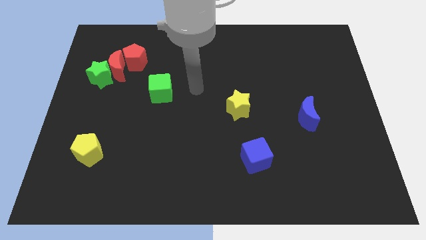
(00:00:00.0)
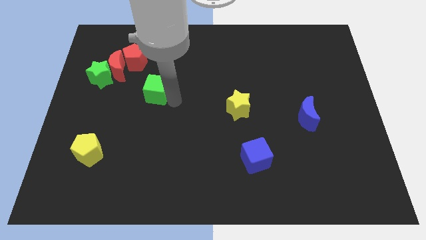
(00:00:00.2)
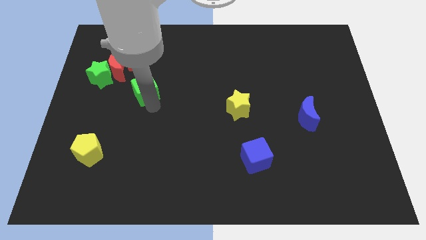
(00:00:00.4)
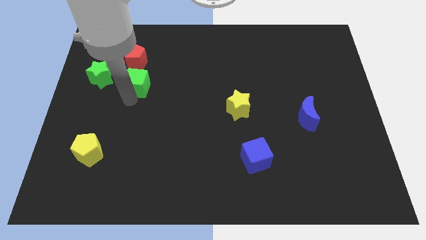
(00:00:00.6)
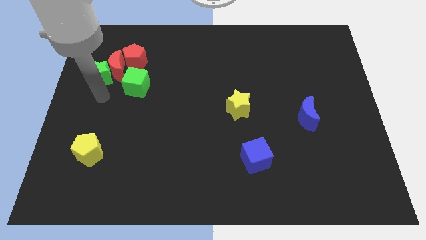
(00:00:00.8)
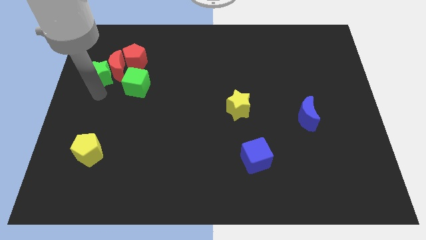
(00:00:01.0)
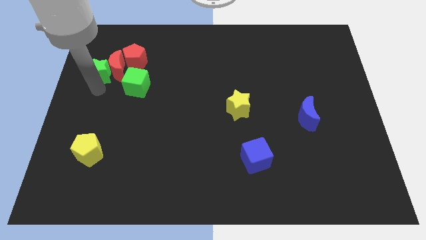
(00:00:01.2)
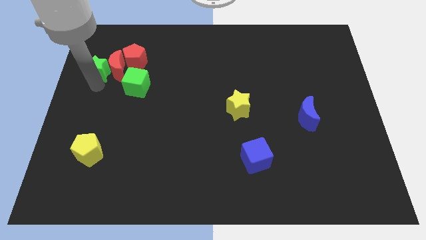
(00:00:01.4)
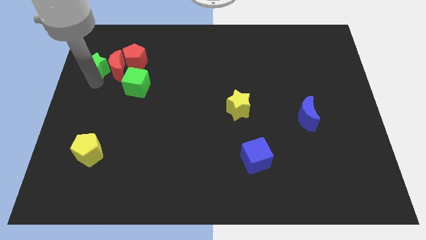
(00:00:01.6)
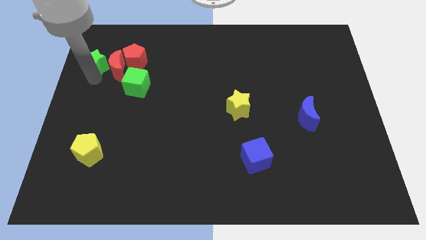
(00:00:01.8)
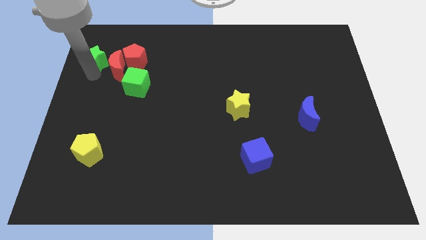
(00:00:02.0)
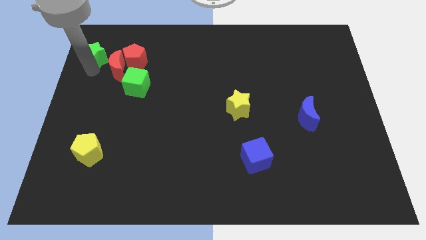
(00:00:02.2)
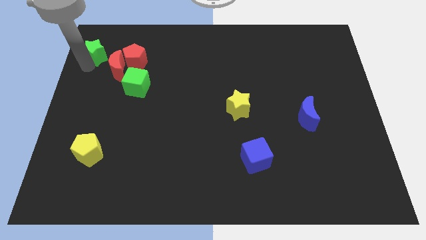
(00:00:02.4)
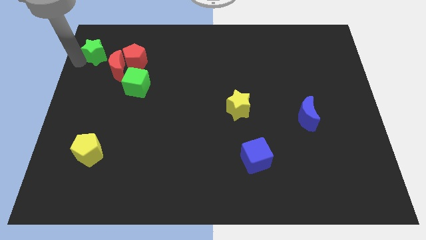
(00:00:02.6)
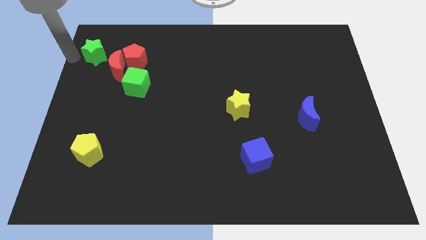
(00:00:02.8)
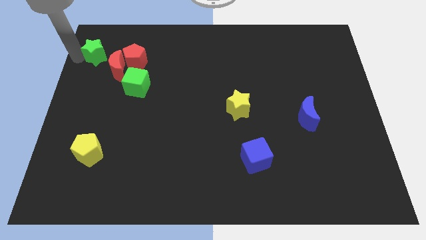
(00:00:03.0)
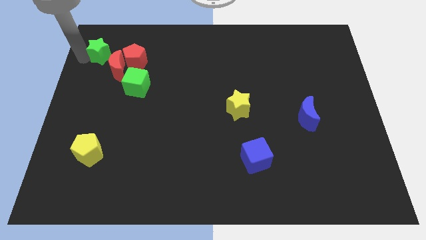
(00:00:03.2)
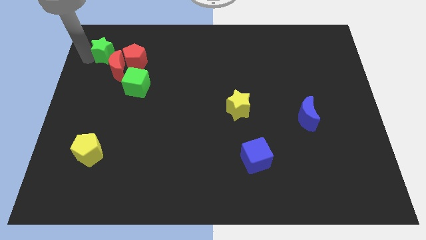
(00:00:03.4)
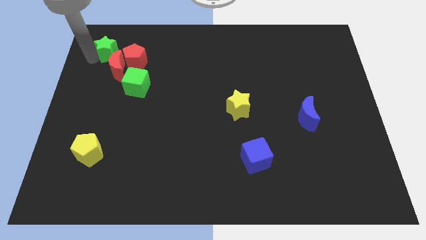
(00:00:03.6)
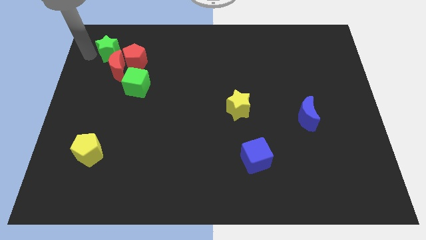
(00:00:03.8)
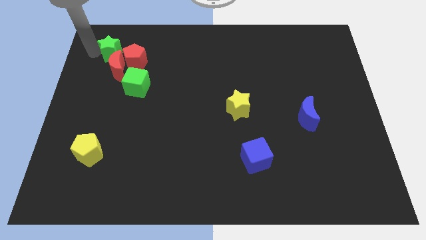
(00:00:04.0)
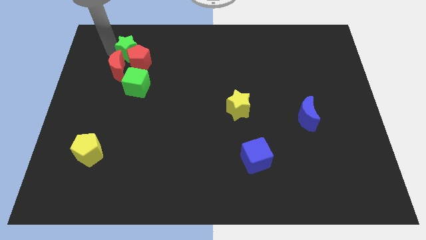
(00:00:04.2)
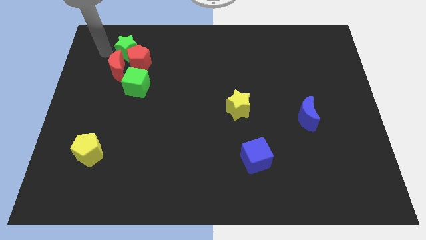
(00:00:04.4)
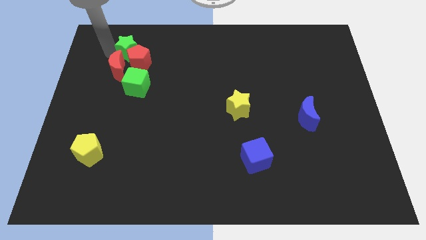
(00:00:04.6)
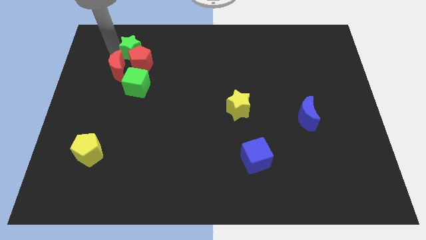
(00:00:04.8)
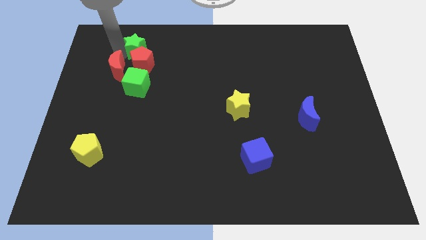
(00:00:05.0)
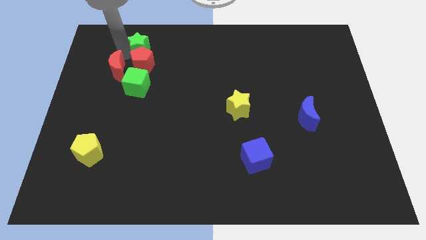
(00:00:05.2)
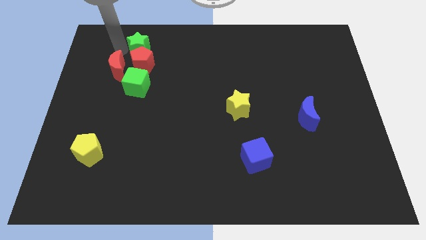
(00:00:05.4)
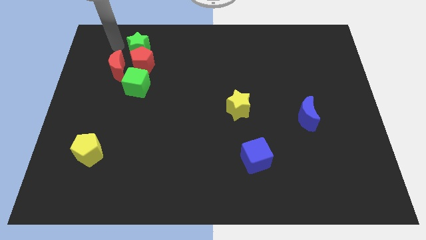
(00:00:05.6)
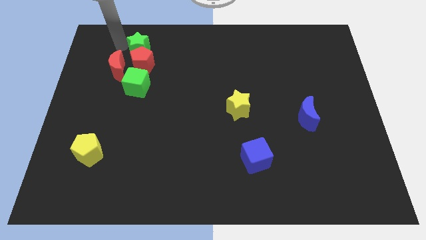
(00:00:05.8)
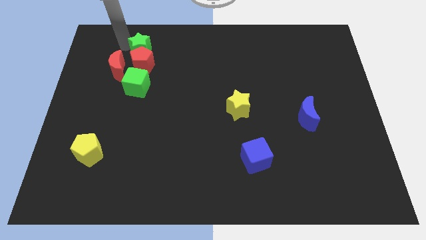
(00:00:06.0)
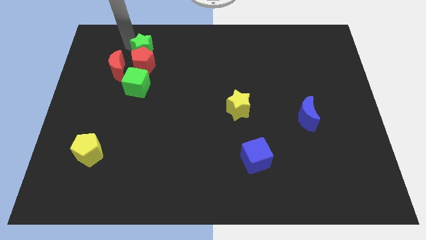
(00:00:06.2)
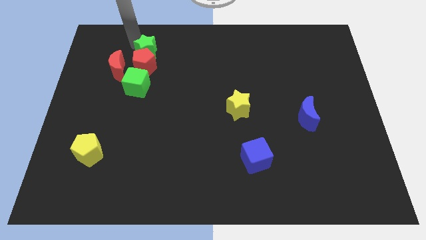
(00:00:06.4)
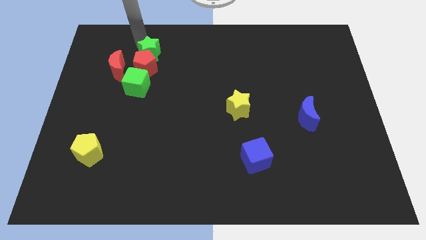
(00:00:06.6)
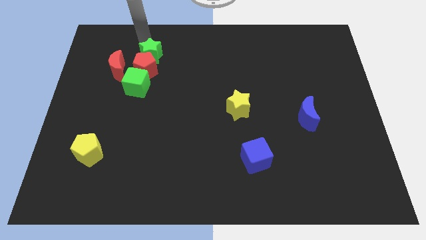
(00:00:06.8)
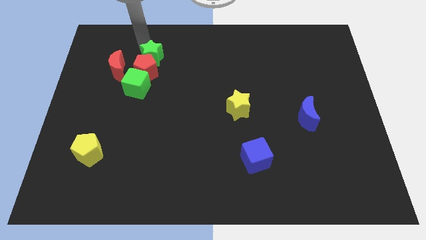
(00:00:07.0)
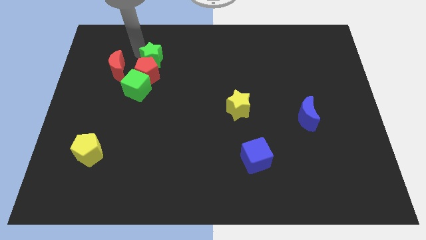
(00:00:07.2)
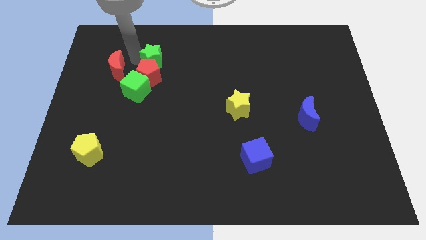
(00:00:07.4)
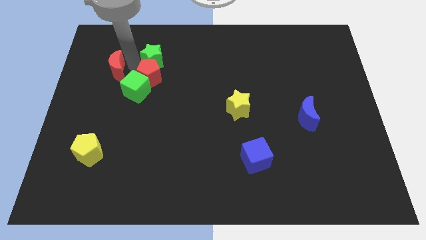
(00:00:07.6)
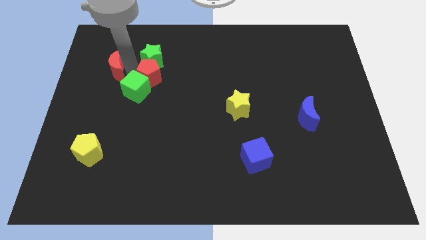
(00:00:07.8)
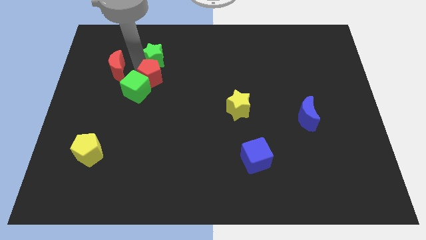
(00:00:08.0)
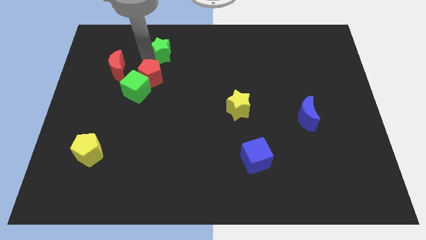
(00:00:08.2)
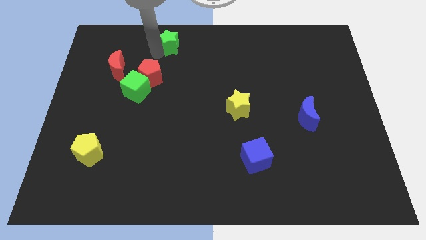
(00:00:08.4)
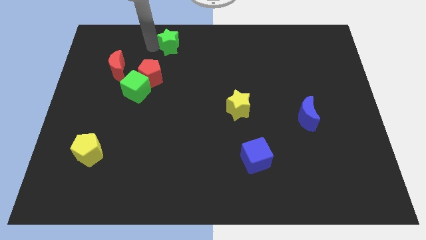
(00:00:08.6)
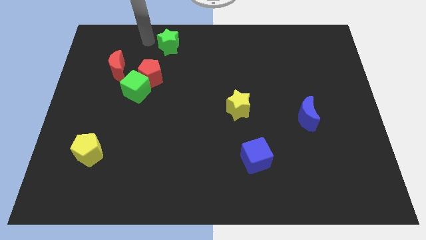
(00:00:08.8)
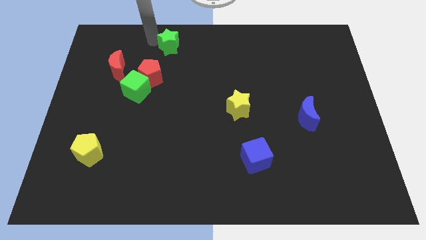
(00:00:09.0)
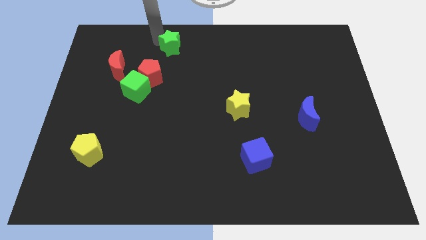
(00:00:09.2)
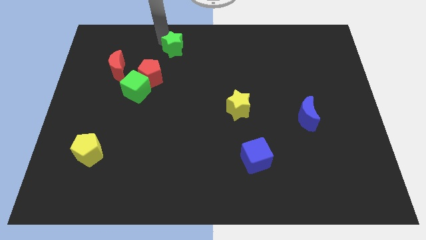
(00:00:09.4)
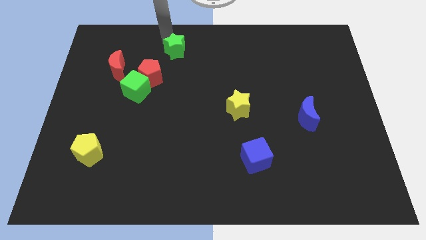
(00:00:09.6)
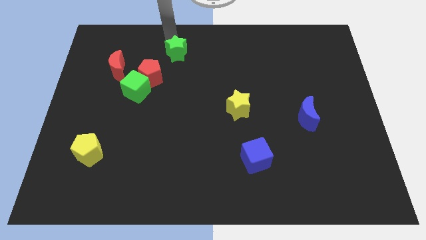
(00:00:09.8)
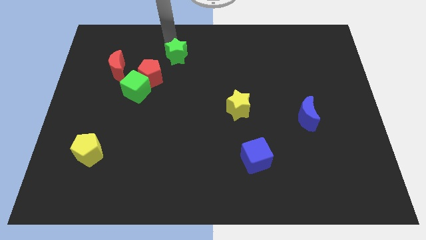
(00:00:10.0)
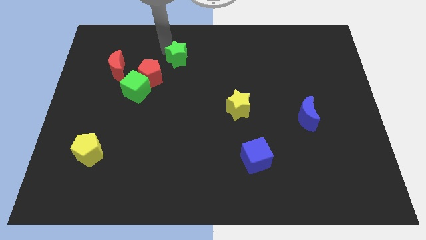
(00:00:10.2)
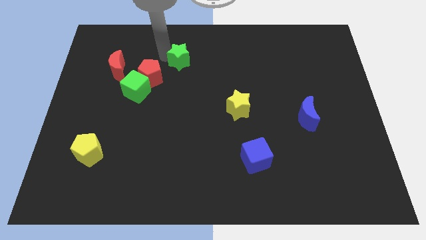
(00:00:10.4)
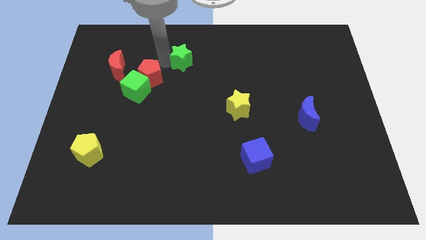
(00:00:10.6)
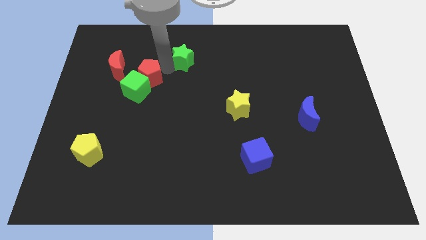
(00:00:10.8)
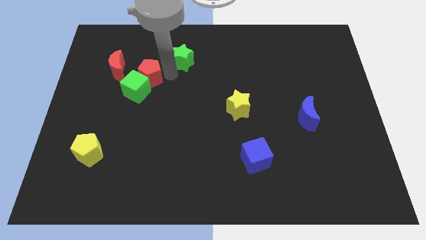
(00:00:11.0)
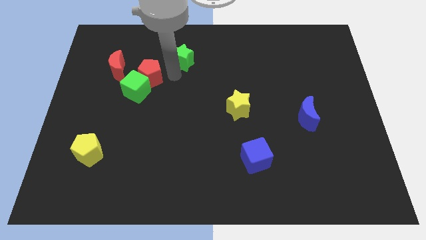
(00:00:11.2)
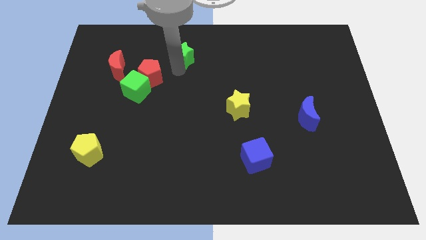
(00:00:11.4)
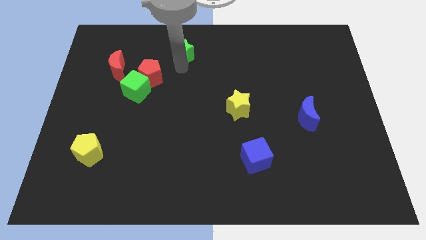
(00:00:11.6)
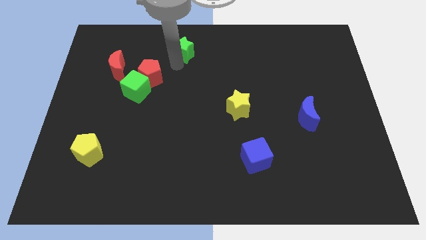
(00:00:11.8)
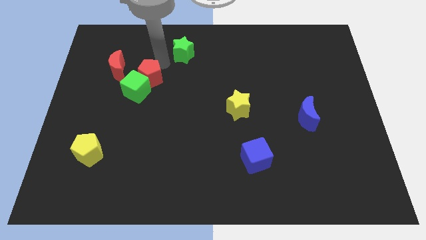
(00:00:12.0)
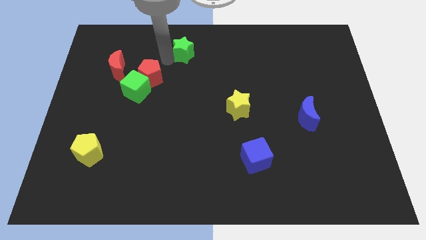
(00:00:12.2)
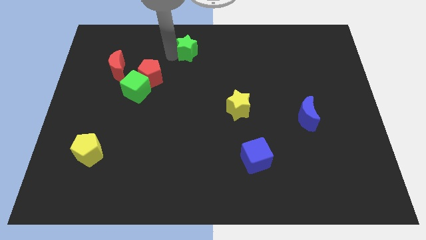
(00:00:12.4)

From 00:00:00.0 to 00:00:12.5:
push the green star to the towards your base

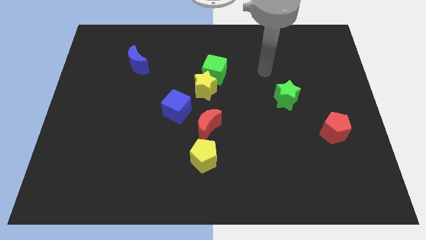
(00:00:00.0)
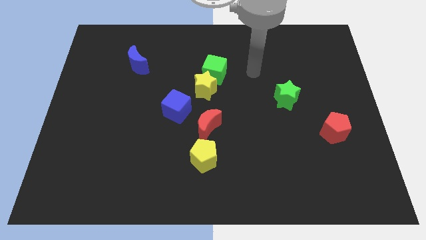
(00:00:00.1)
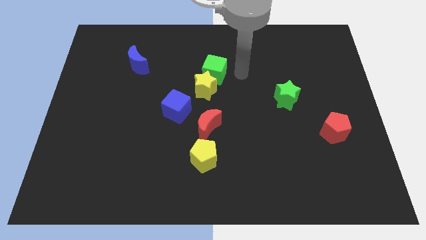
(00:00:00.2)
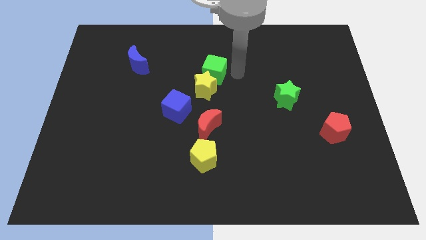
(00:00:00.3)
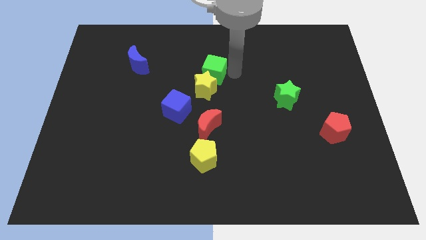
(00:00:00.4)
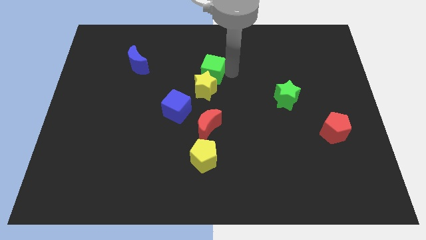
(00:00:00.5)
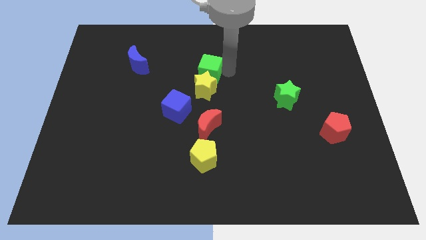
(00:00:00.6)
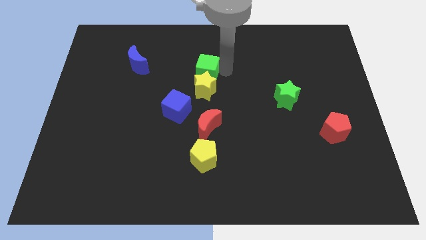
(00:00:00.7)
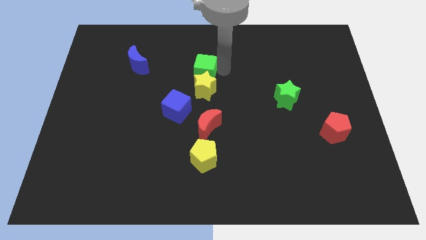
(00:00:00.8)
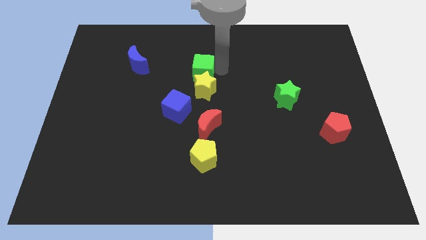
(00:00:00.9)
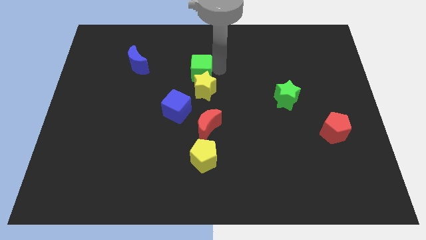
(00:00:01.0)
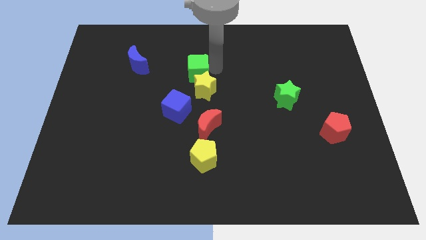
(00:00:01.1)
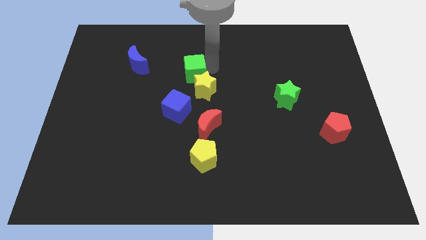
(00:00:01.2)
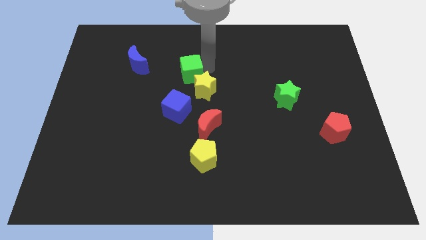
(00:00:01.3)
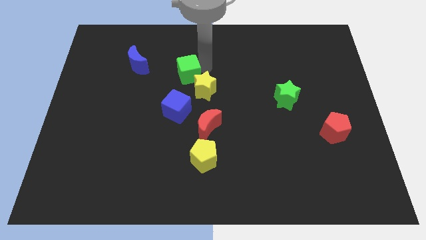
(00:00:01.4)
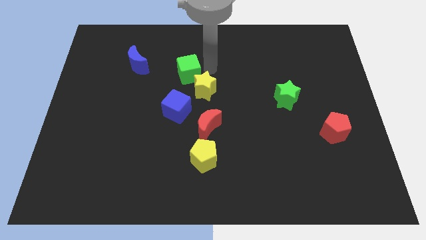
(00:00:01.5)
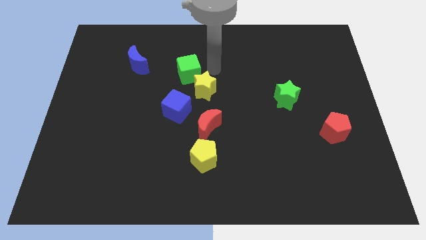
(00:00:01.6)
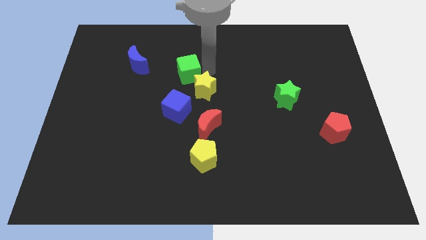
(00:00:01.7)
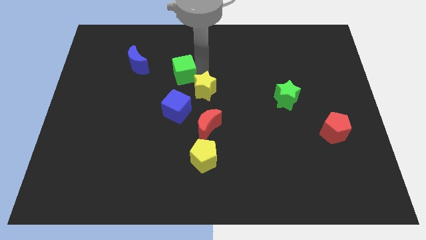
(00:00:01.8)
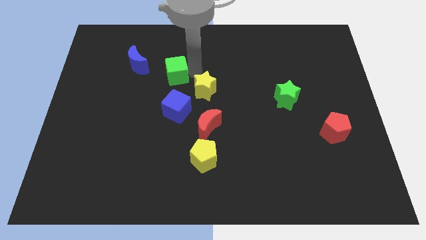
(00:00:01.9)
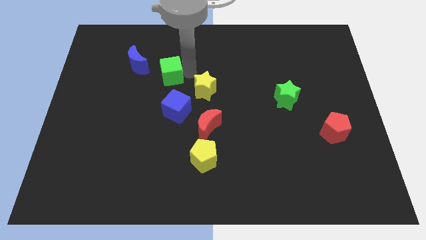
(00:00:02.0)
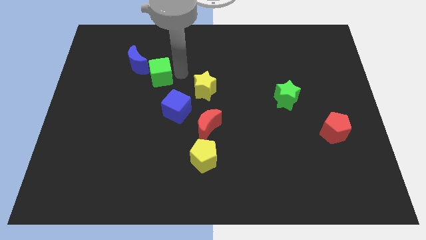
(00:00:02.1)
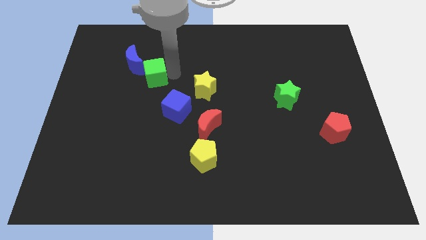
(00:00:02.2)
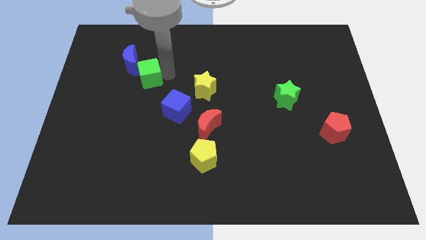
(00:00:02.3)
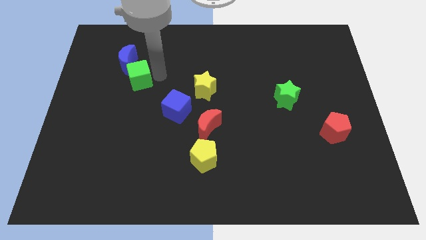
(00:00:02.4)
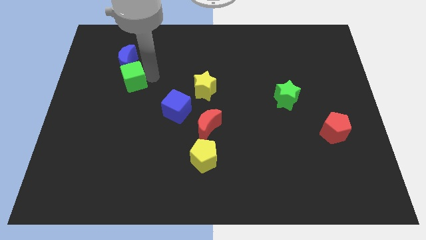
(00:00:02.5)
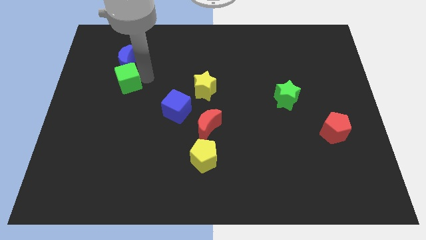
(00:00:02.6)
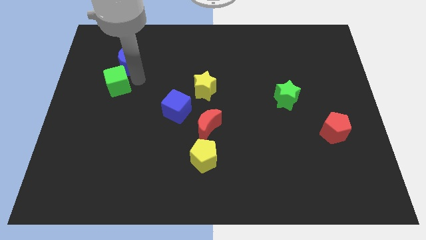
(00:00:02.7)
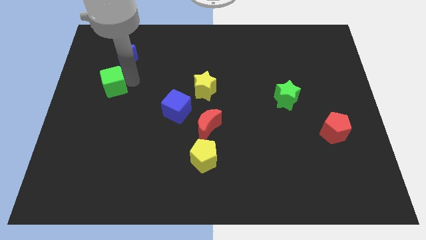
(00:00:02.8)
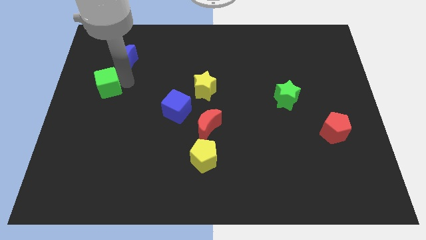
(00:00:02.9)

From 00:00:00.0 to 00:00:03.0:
move the green cube to the left side of the board
